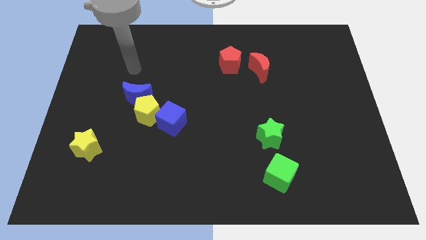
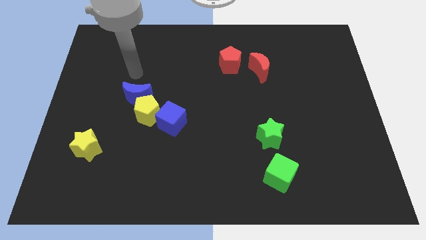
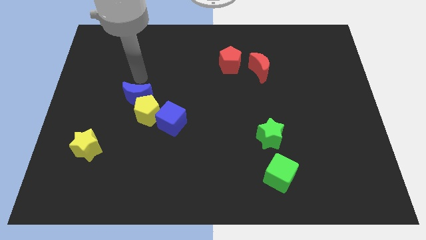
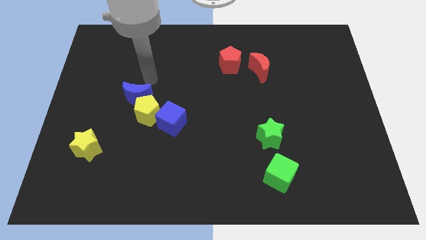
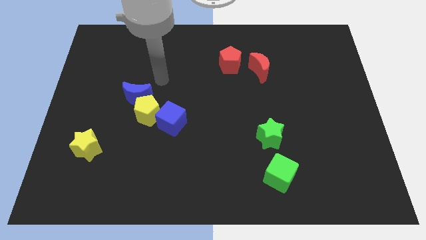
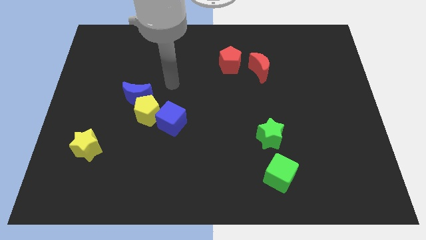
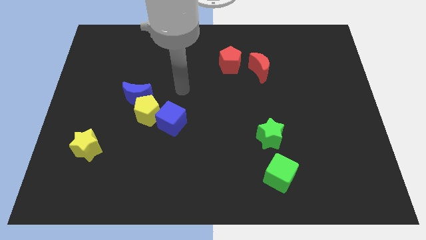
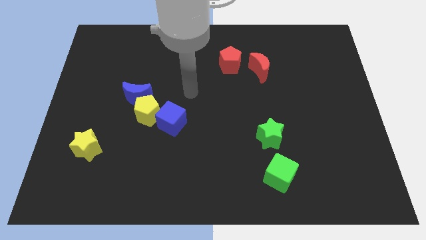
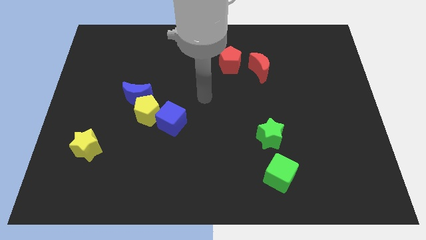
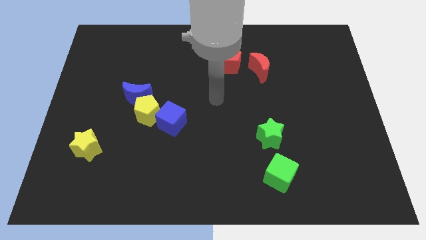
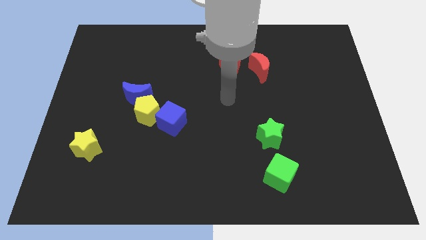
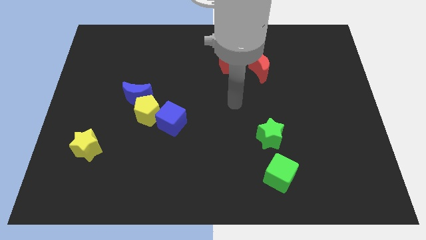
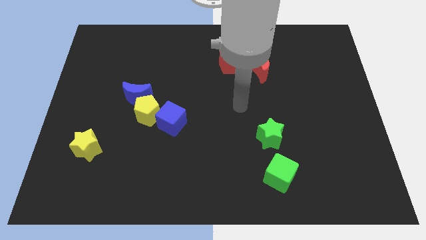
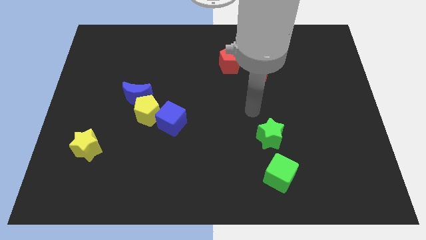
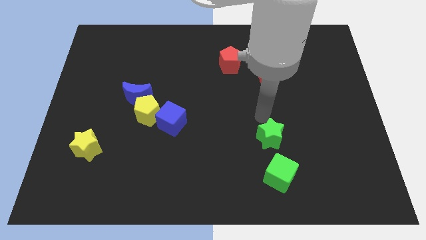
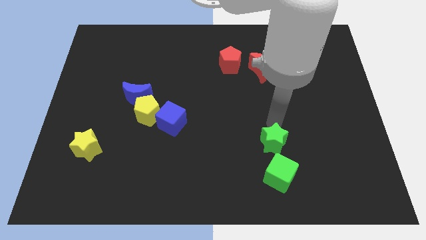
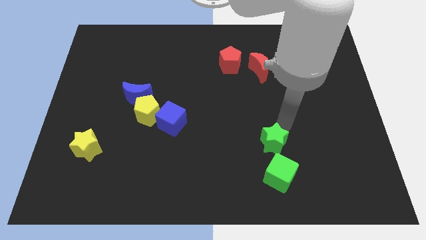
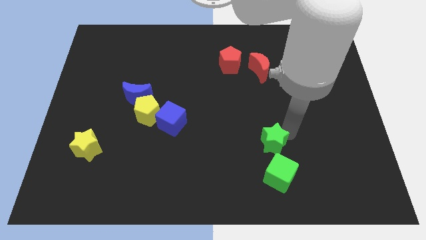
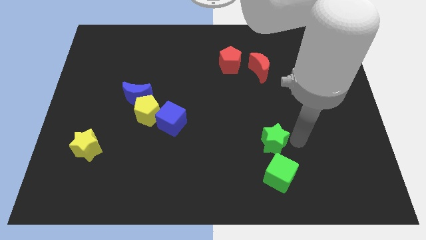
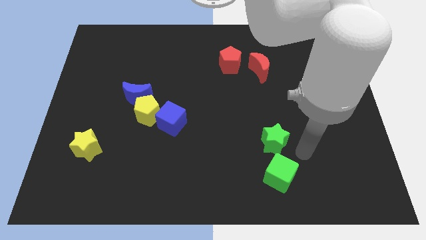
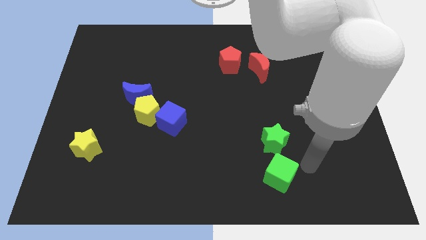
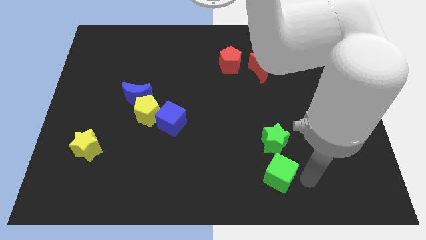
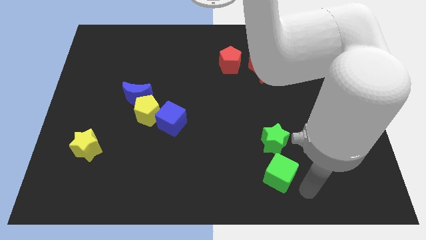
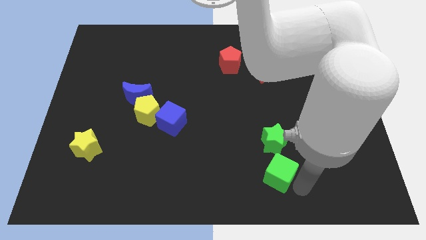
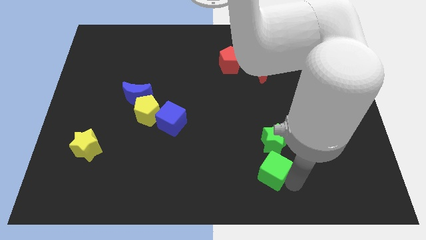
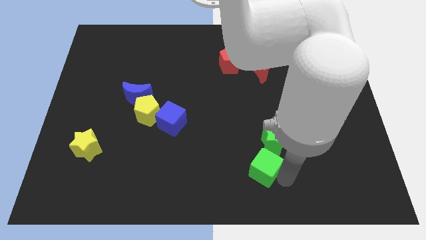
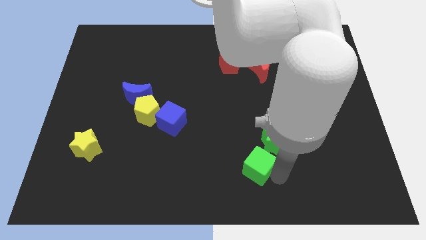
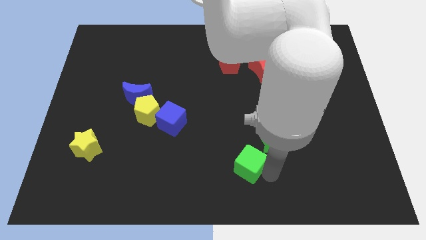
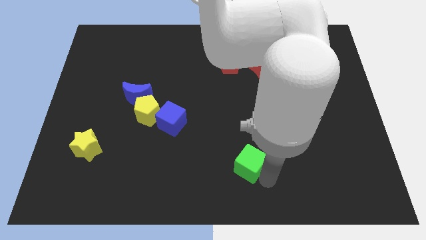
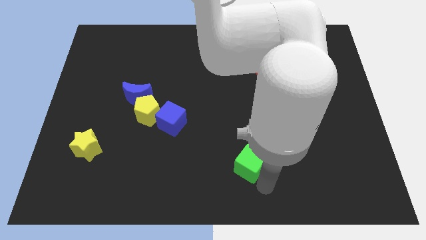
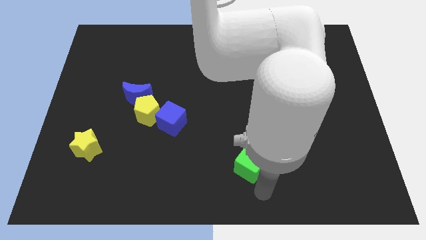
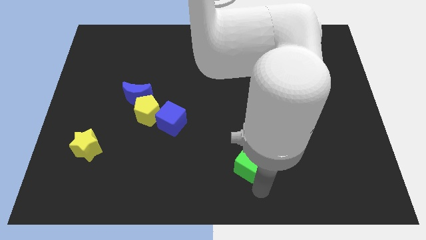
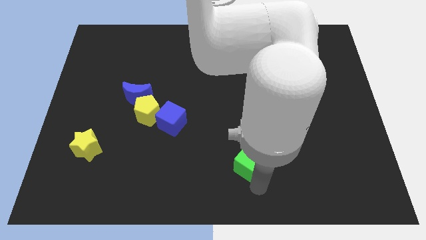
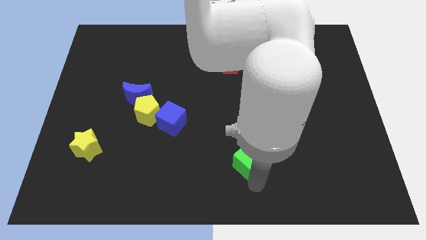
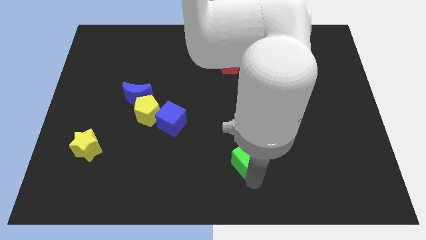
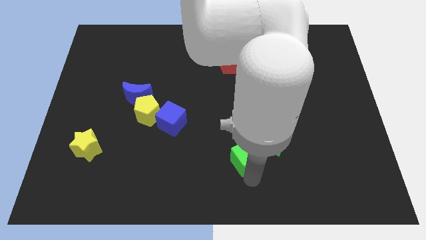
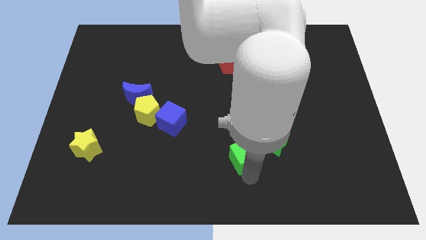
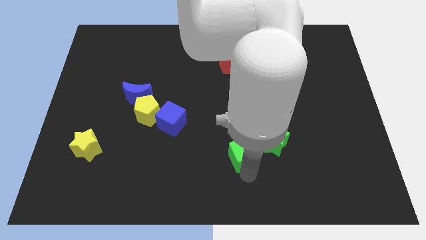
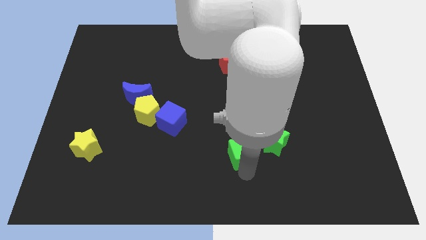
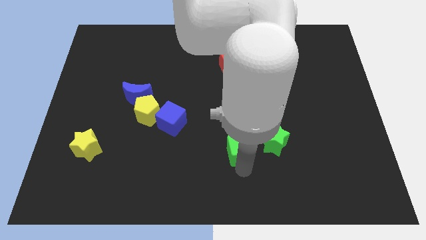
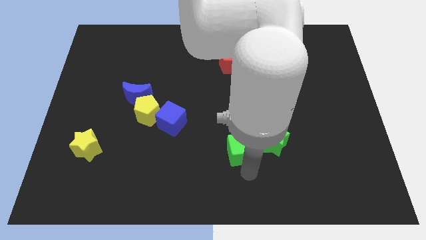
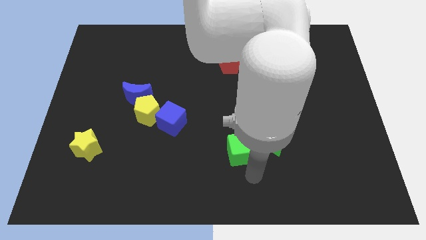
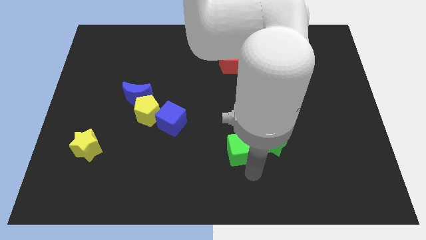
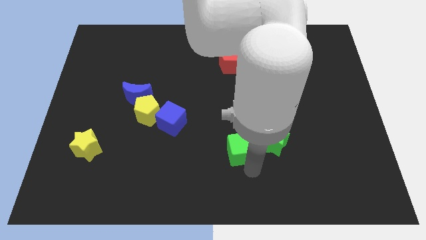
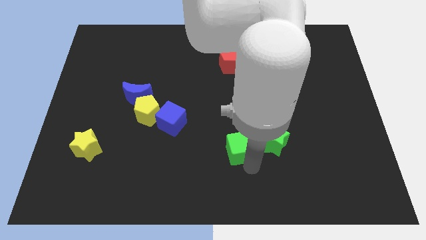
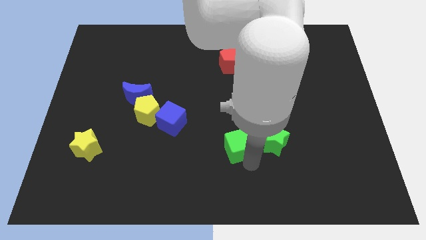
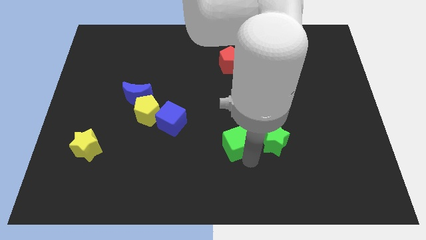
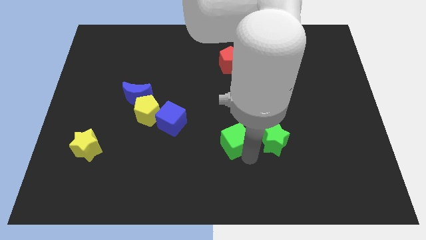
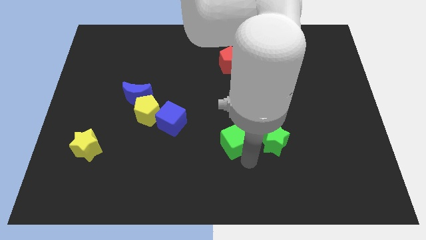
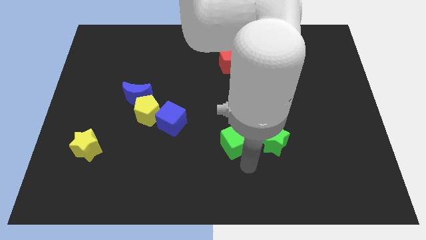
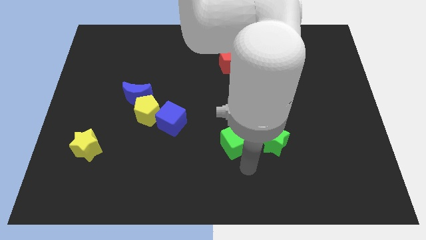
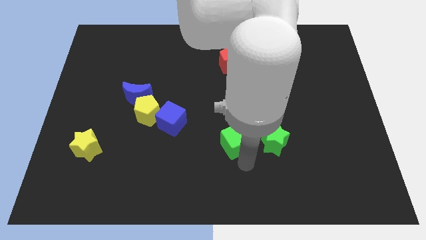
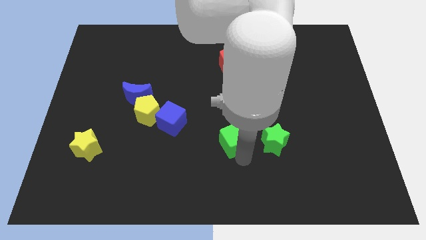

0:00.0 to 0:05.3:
put the green cube to the middle

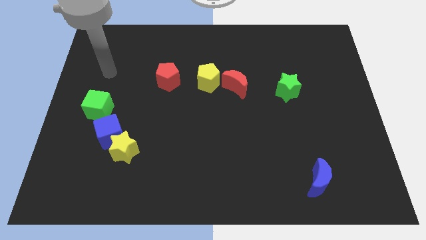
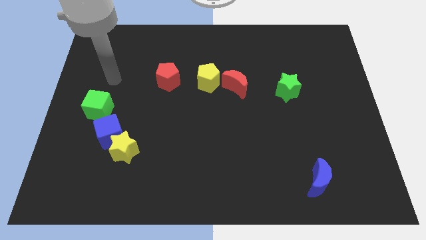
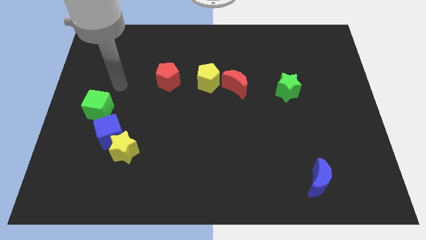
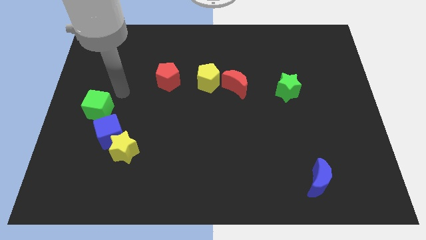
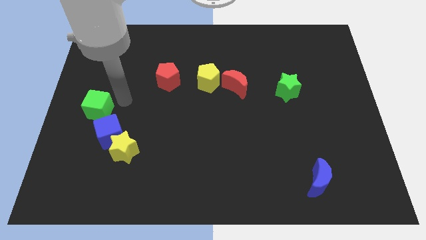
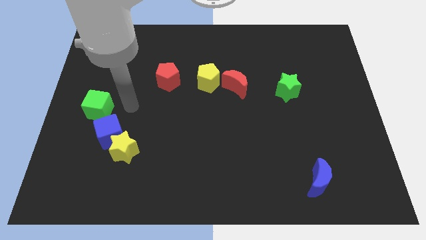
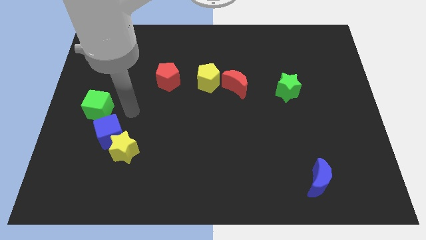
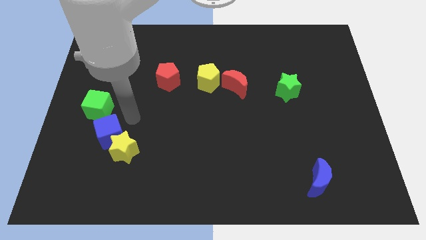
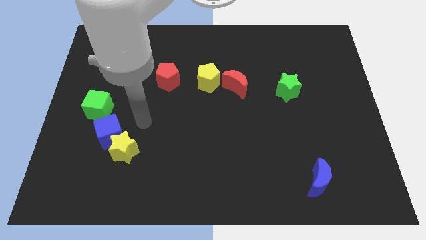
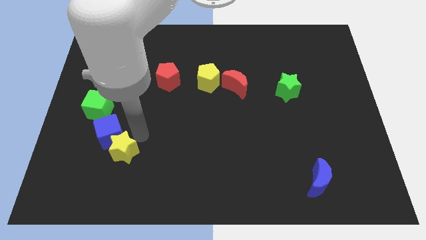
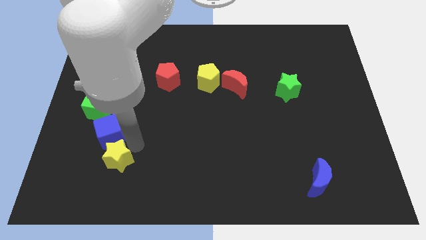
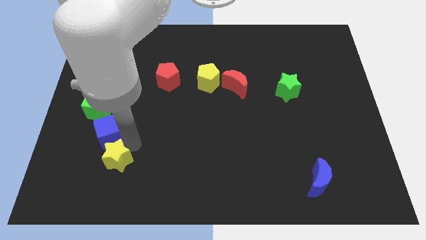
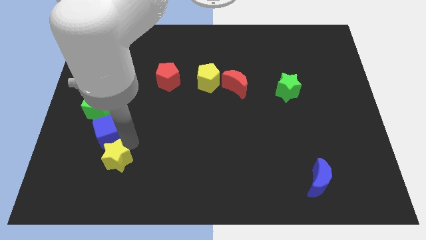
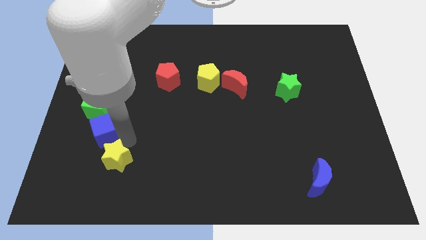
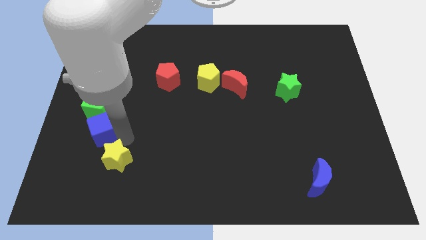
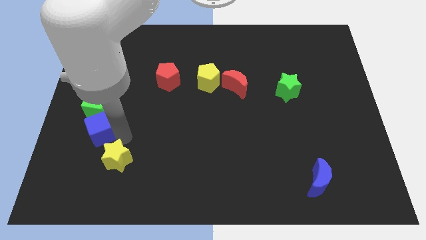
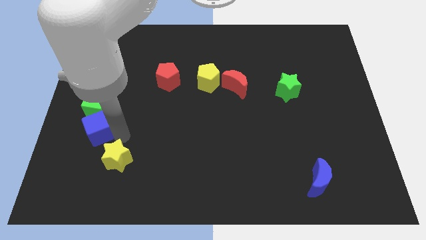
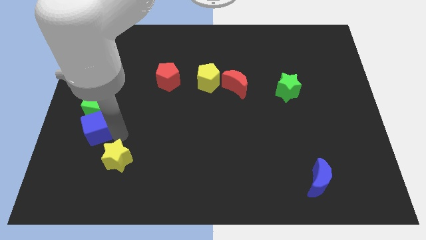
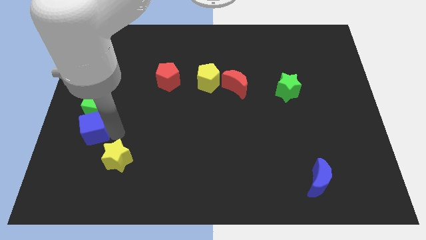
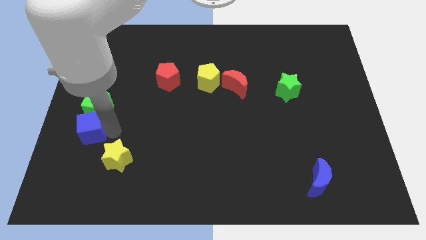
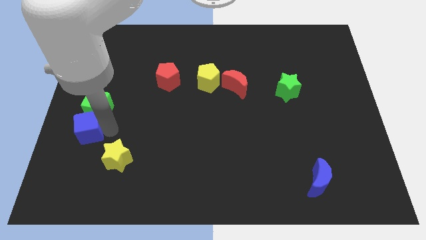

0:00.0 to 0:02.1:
put the blue cube to the left side

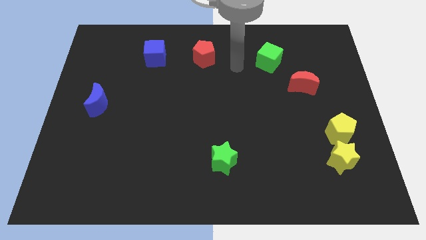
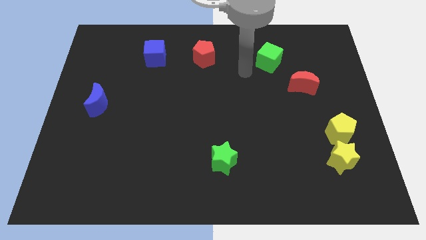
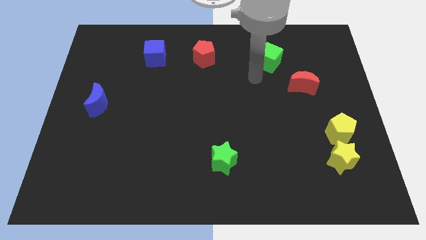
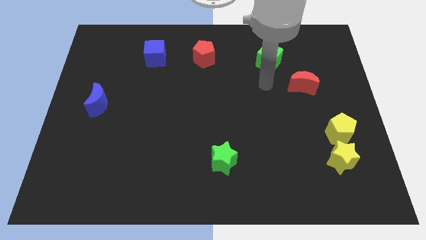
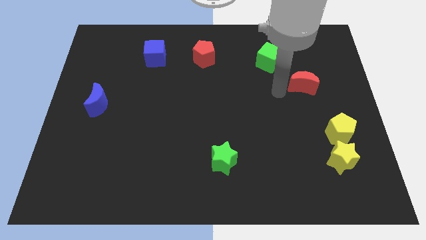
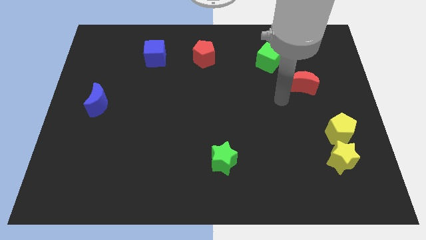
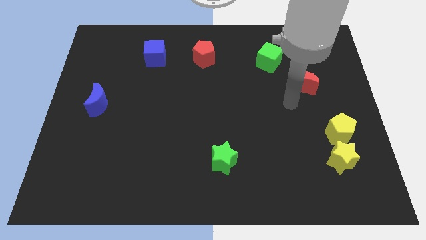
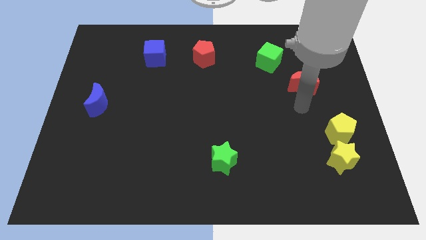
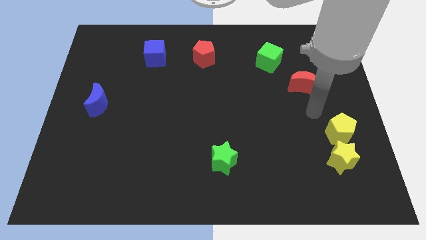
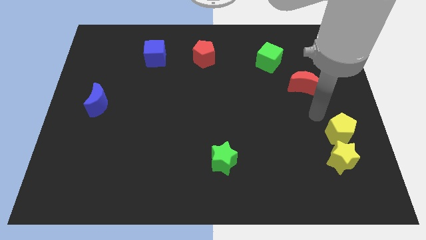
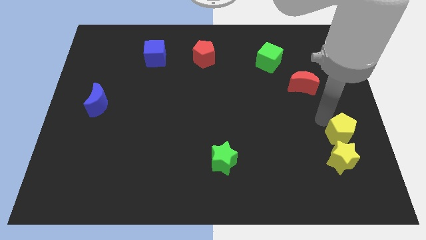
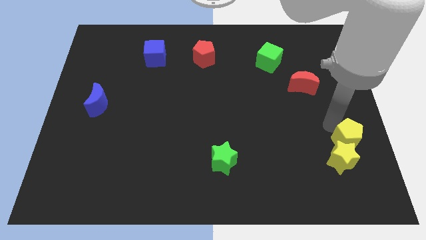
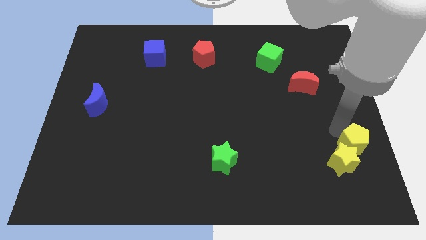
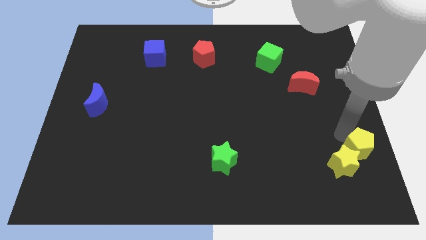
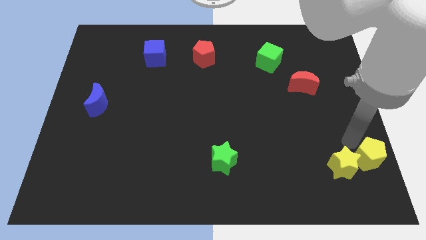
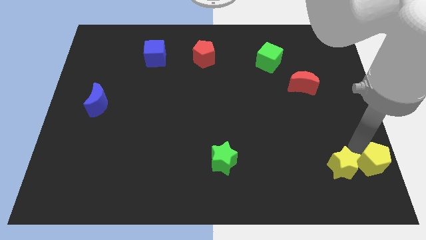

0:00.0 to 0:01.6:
slide the yellow pentagon to the lower right corner
